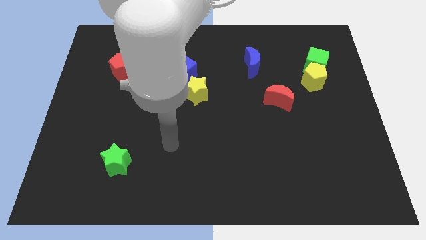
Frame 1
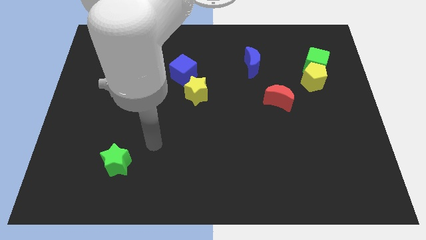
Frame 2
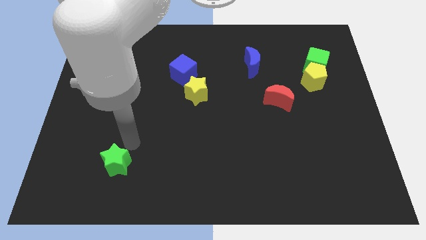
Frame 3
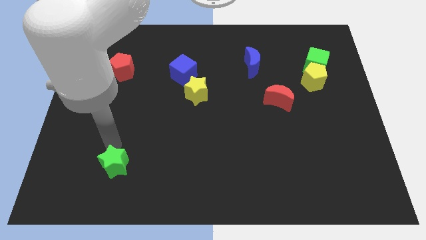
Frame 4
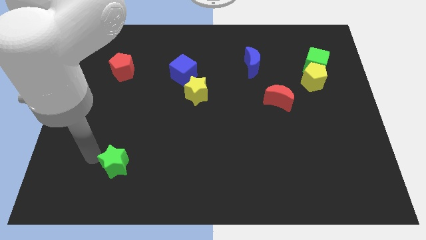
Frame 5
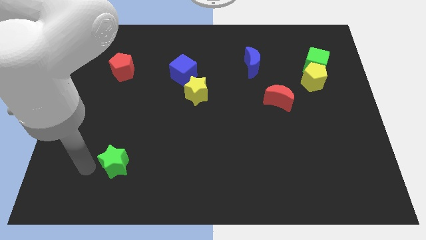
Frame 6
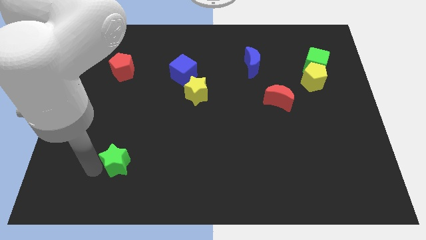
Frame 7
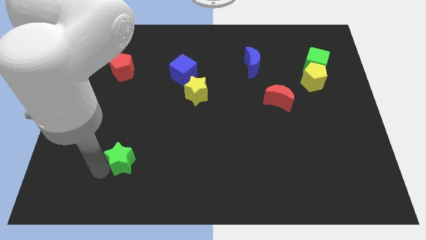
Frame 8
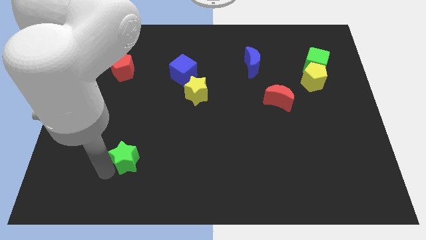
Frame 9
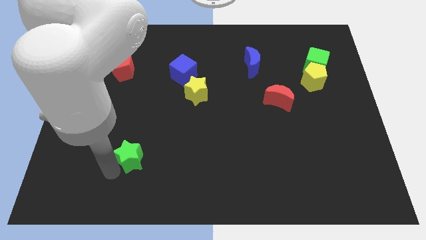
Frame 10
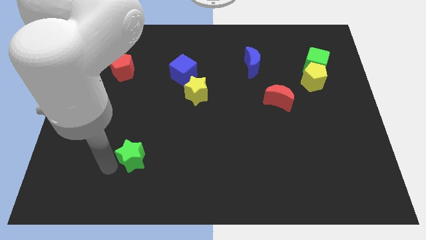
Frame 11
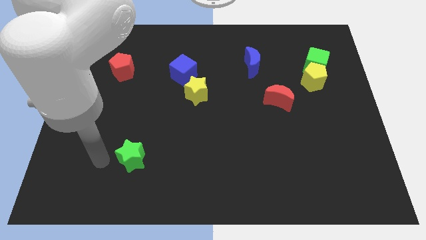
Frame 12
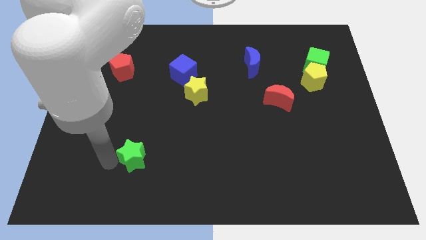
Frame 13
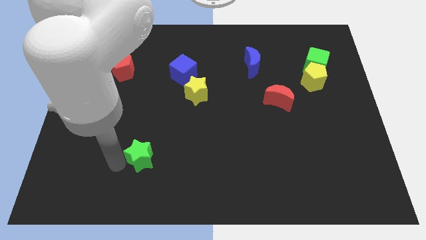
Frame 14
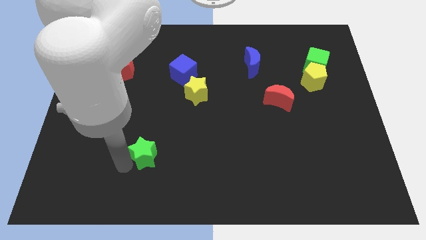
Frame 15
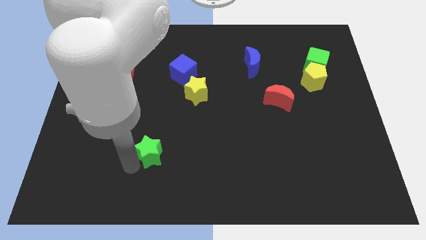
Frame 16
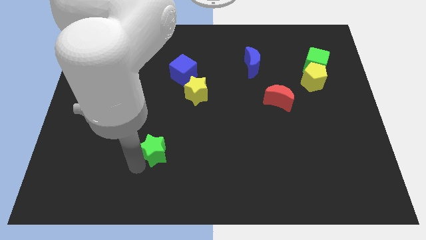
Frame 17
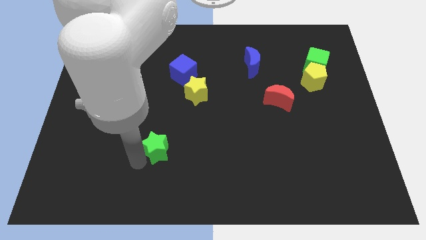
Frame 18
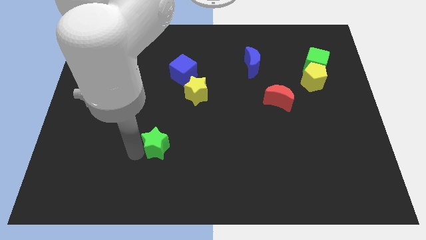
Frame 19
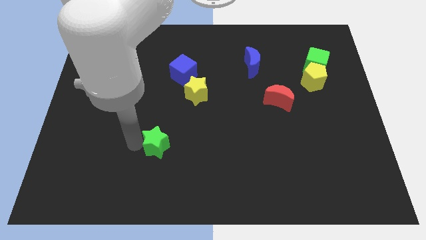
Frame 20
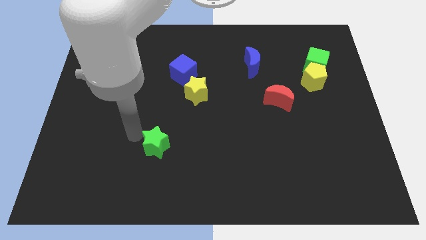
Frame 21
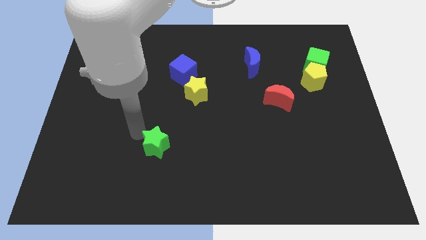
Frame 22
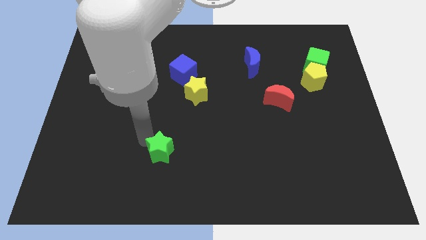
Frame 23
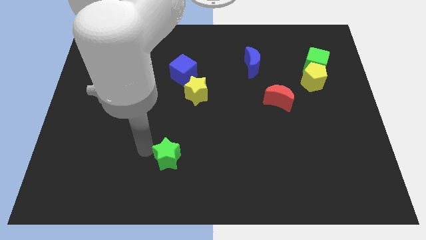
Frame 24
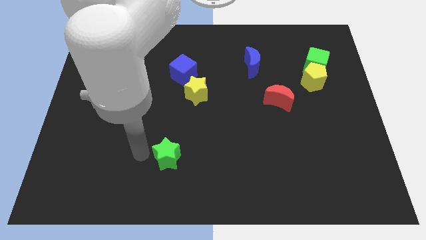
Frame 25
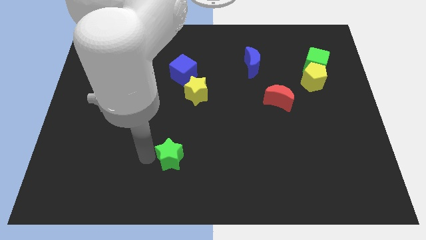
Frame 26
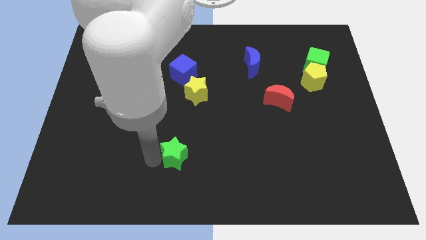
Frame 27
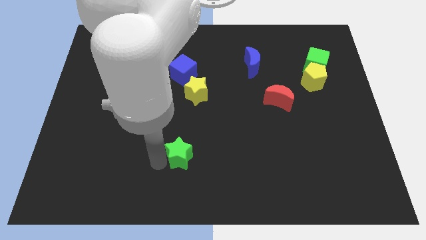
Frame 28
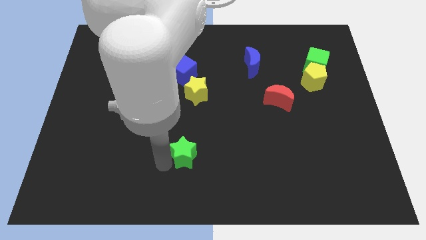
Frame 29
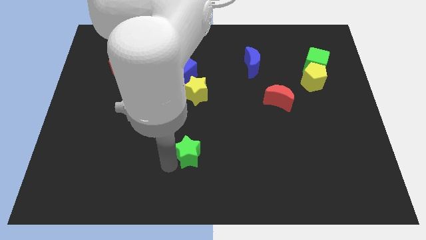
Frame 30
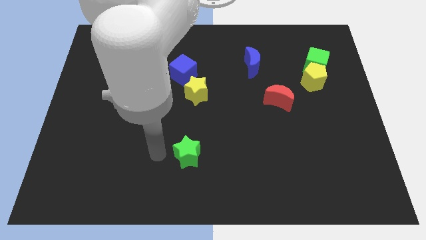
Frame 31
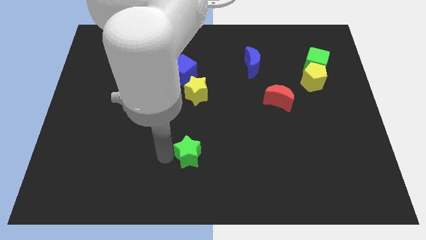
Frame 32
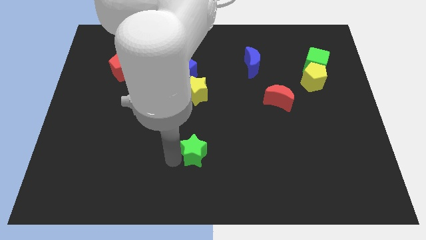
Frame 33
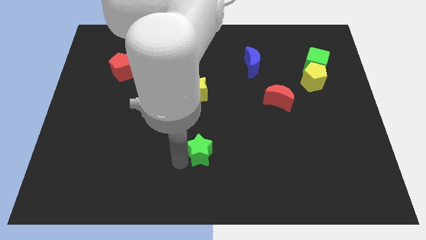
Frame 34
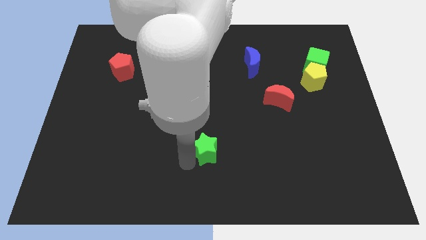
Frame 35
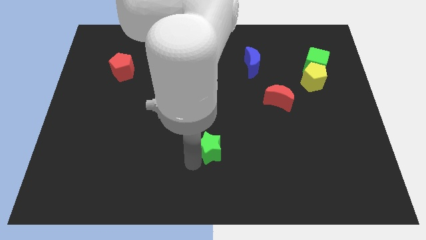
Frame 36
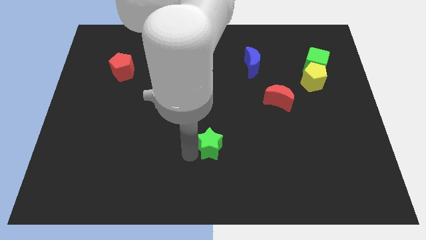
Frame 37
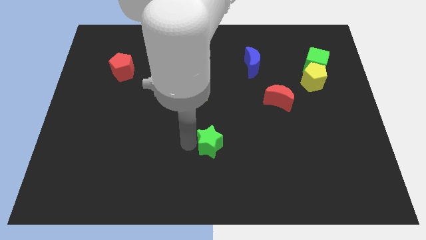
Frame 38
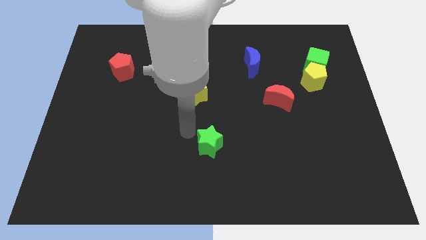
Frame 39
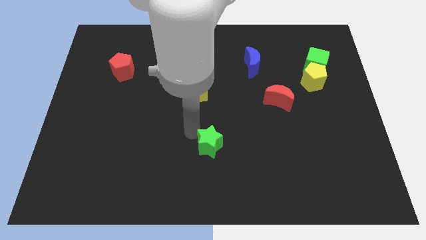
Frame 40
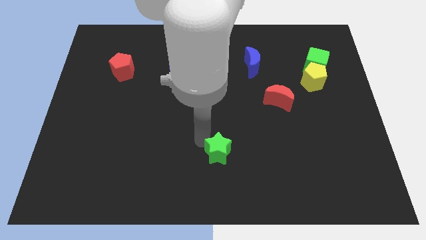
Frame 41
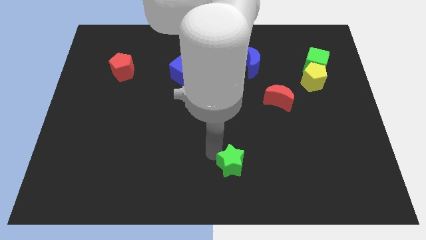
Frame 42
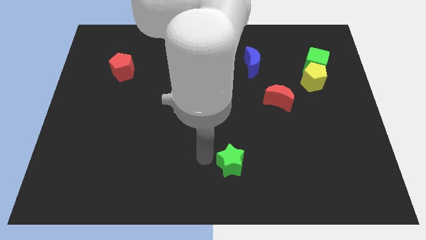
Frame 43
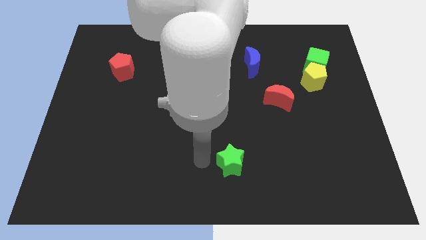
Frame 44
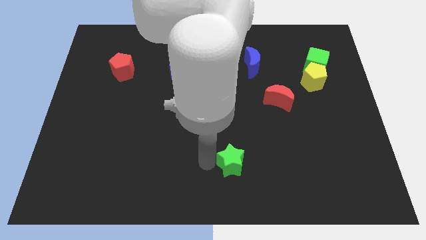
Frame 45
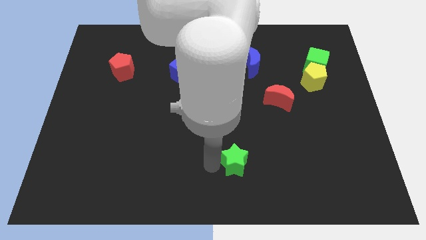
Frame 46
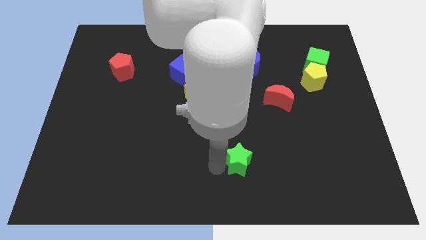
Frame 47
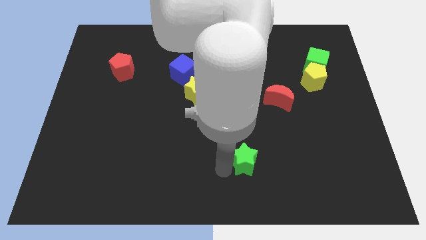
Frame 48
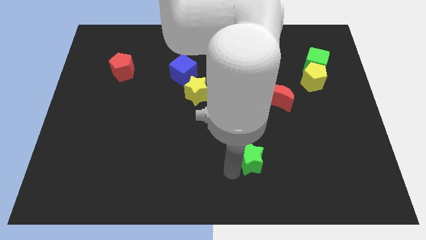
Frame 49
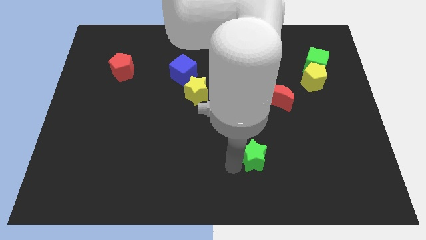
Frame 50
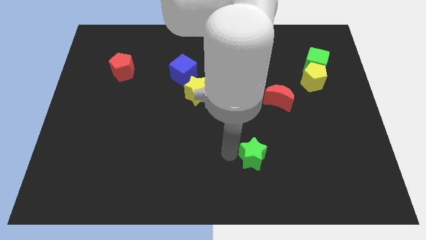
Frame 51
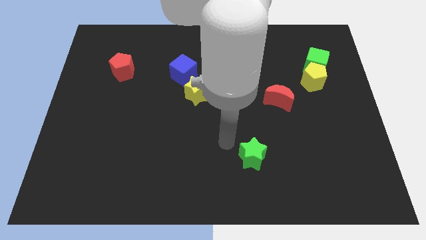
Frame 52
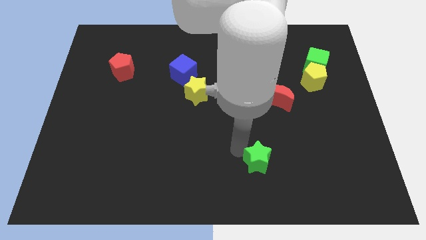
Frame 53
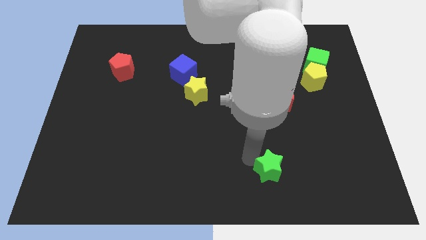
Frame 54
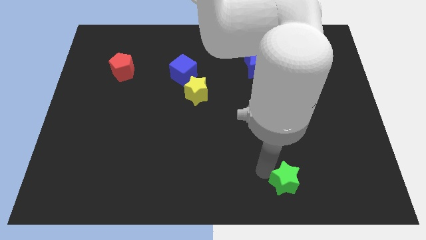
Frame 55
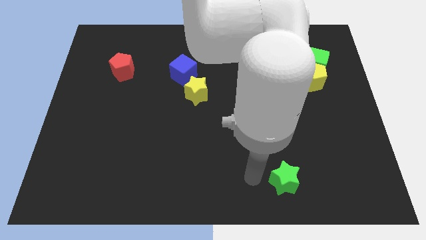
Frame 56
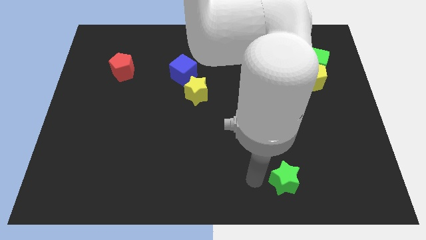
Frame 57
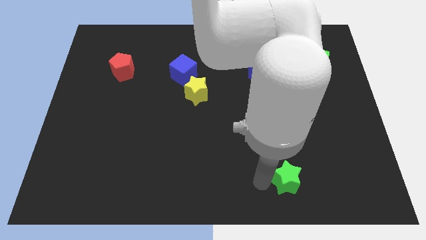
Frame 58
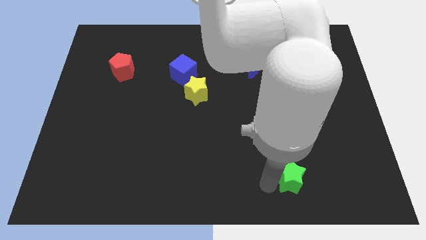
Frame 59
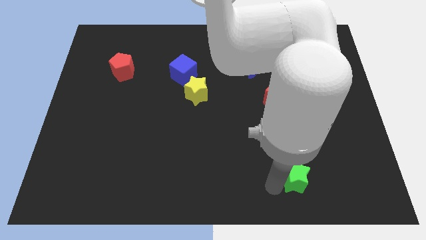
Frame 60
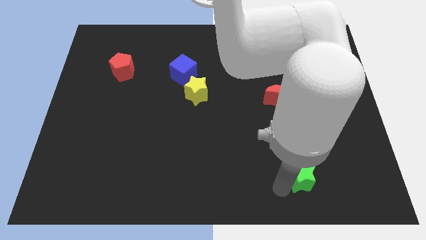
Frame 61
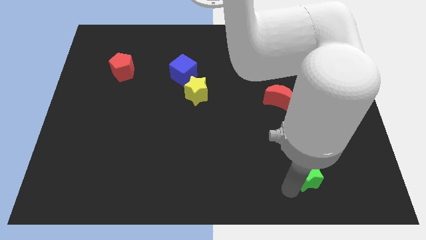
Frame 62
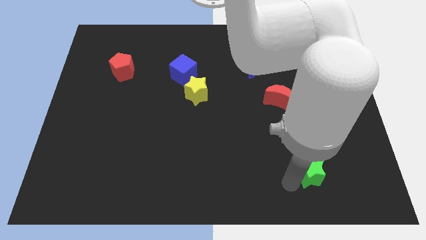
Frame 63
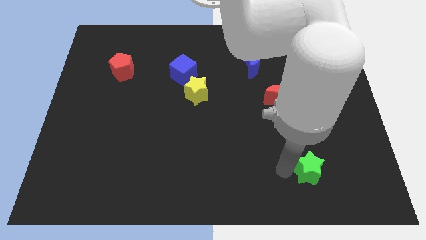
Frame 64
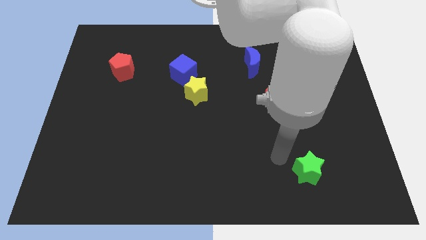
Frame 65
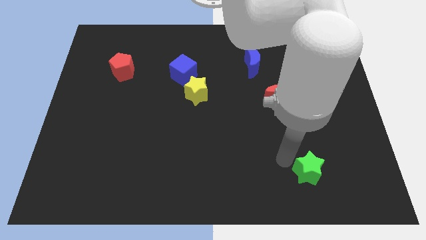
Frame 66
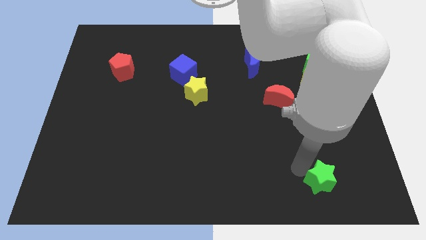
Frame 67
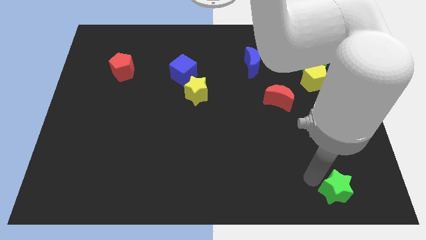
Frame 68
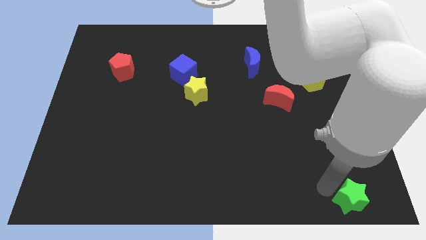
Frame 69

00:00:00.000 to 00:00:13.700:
slide the green star to the bottom right corner
